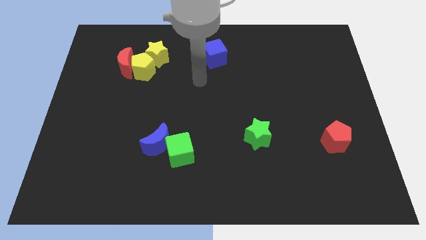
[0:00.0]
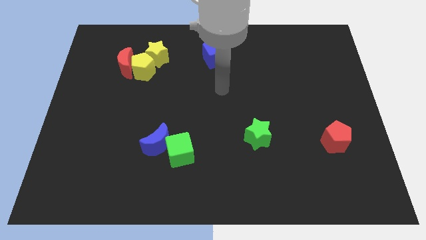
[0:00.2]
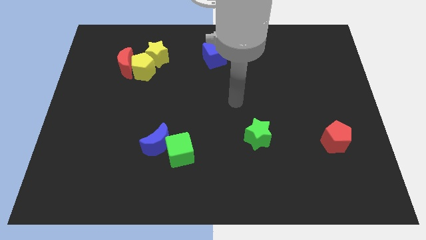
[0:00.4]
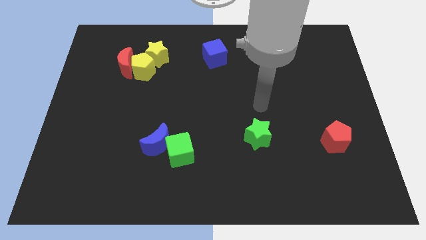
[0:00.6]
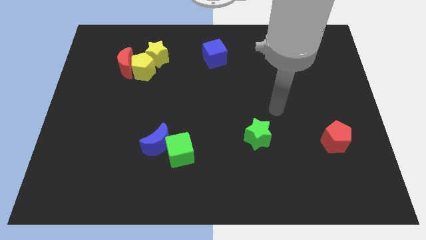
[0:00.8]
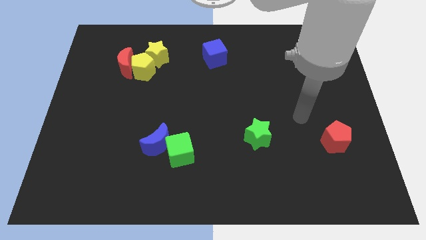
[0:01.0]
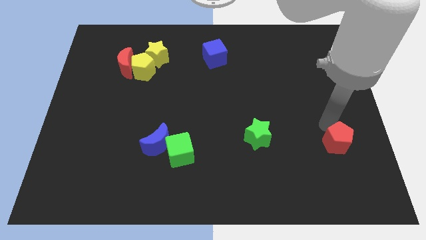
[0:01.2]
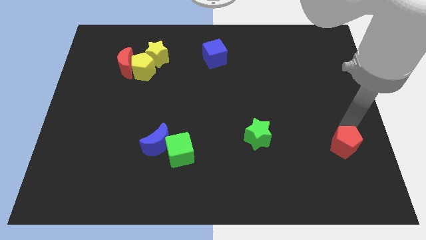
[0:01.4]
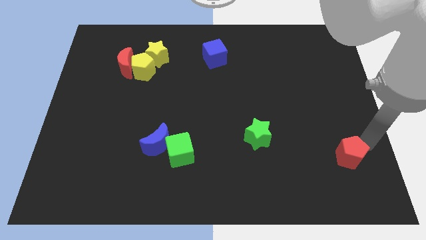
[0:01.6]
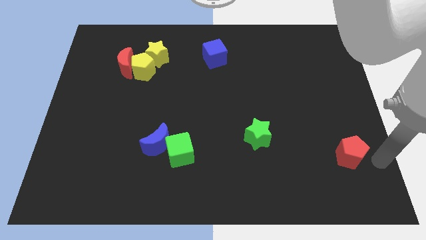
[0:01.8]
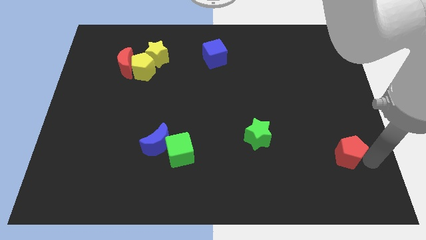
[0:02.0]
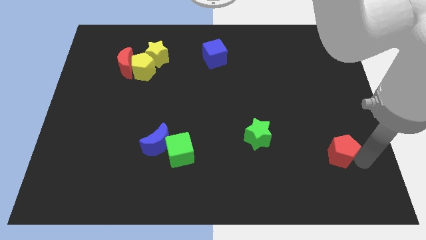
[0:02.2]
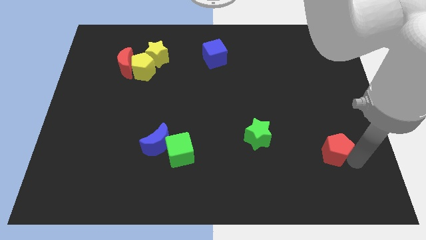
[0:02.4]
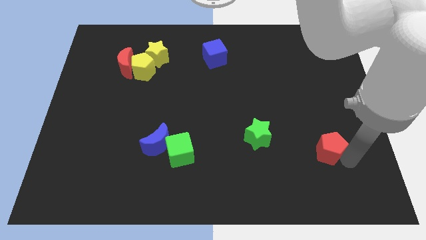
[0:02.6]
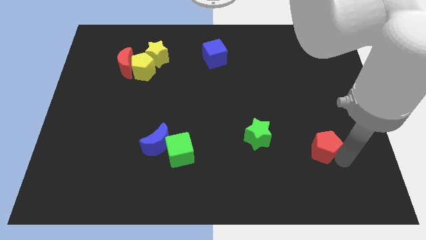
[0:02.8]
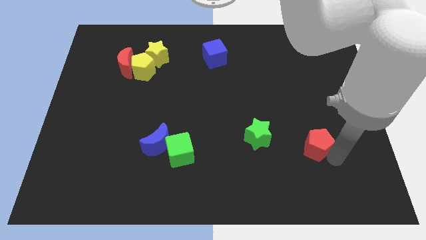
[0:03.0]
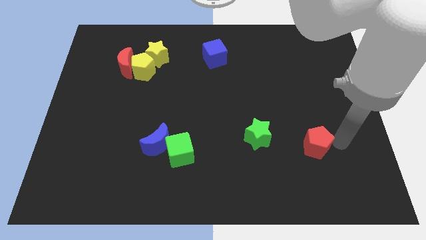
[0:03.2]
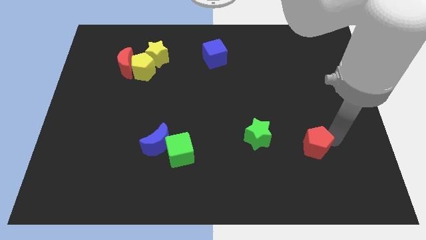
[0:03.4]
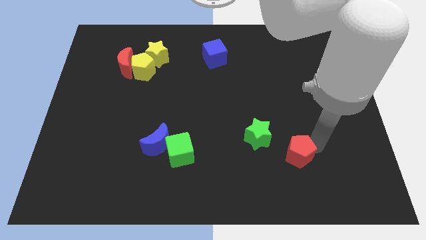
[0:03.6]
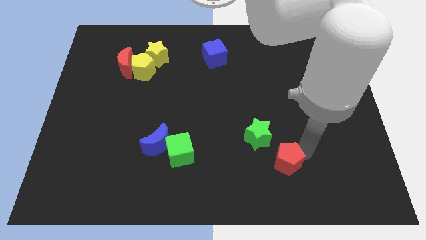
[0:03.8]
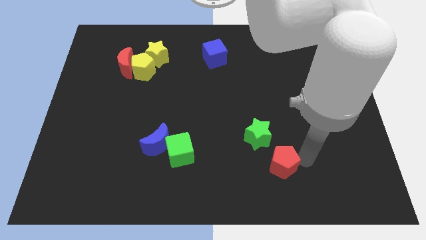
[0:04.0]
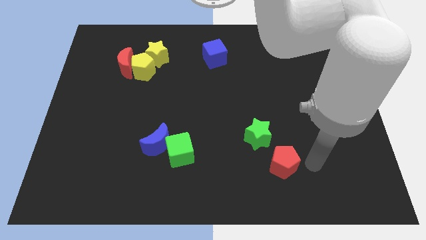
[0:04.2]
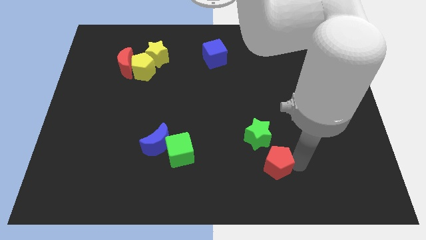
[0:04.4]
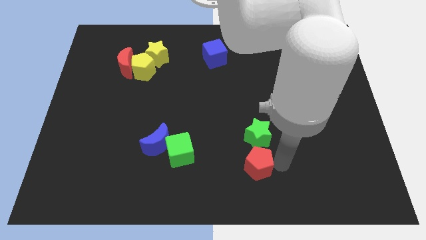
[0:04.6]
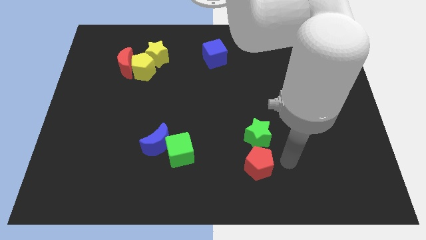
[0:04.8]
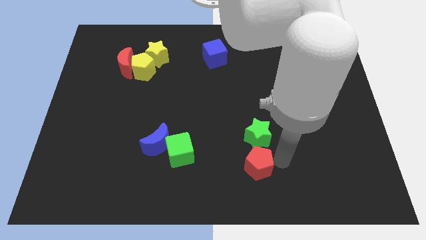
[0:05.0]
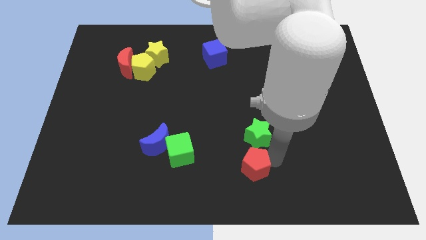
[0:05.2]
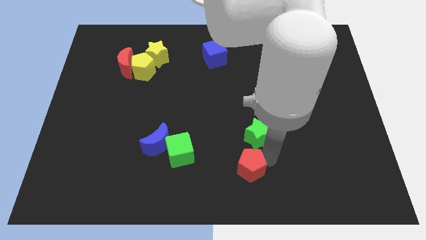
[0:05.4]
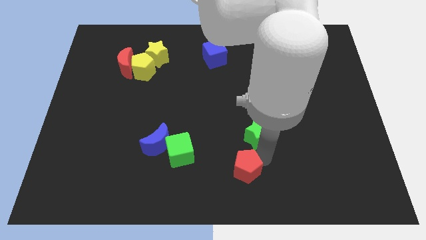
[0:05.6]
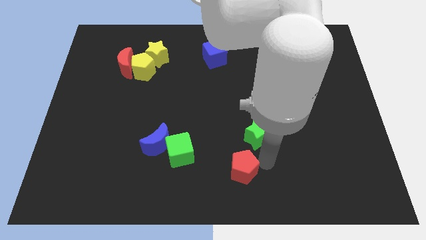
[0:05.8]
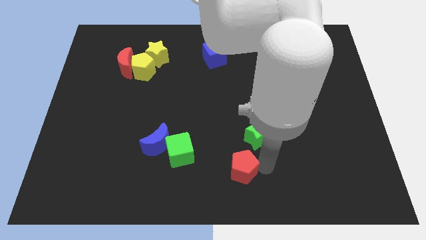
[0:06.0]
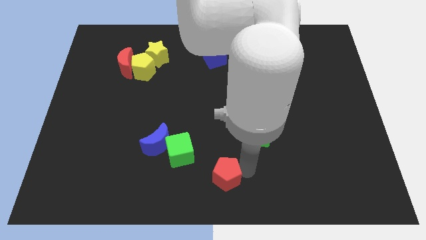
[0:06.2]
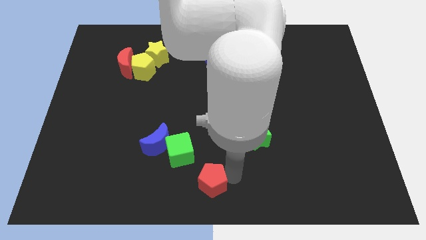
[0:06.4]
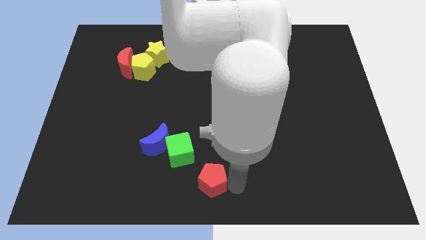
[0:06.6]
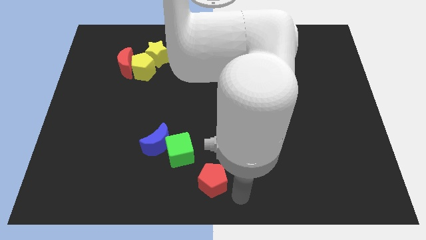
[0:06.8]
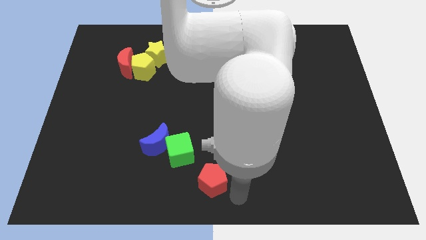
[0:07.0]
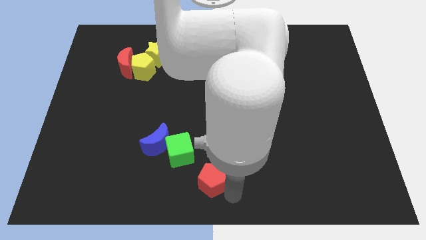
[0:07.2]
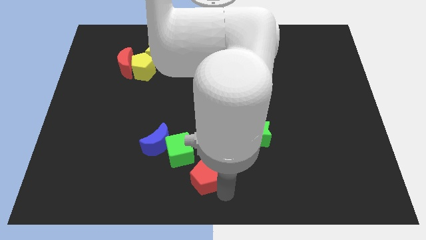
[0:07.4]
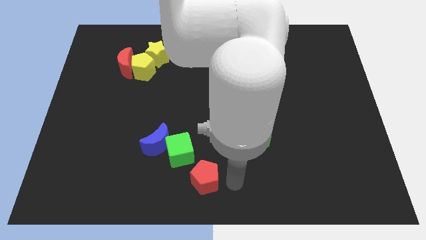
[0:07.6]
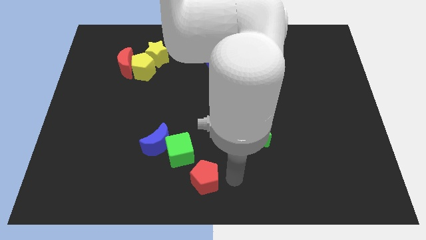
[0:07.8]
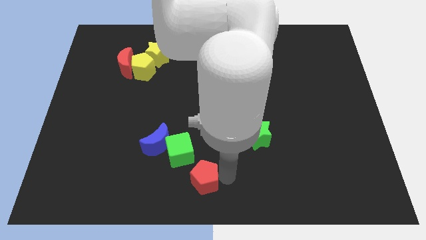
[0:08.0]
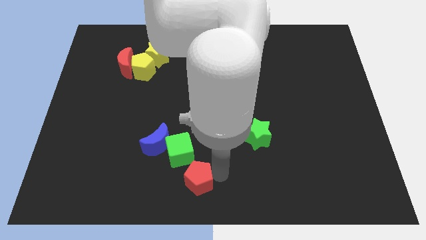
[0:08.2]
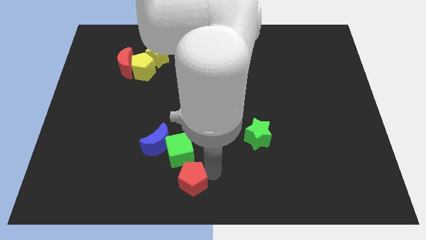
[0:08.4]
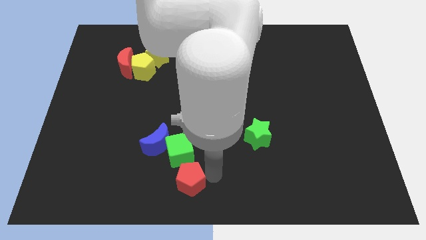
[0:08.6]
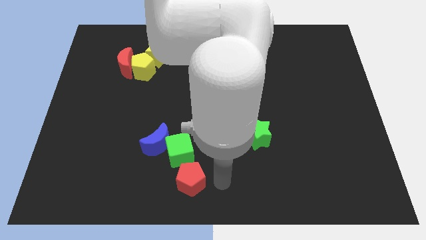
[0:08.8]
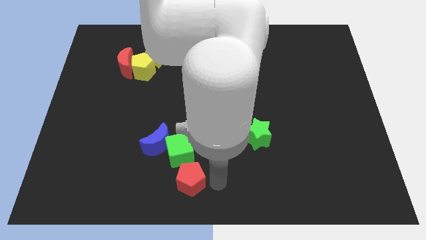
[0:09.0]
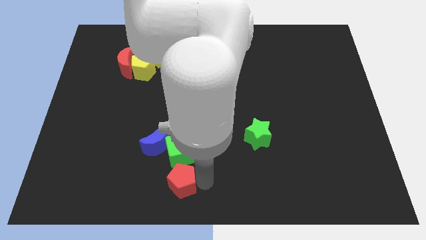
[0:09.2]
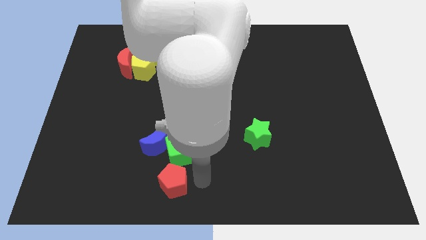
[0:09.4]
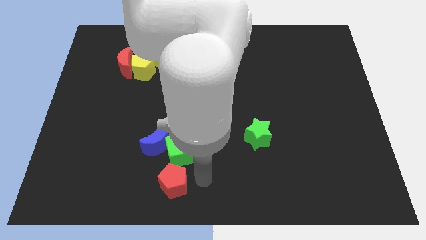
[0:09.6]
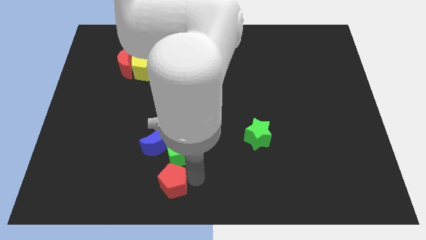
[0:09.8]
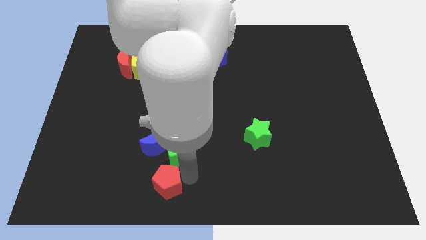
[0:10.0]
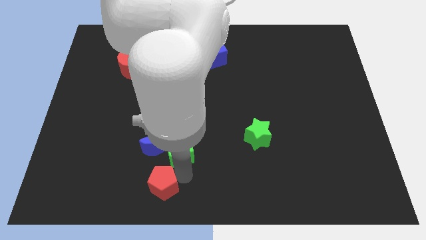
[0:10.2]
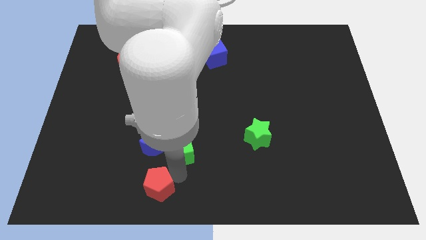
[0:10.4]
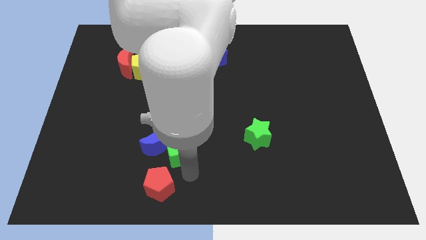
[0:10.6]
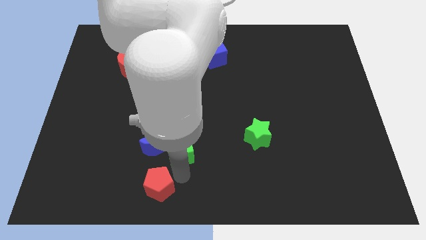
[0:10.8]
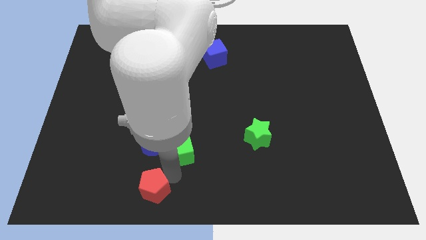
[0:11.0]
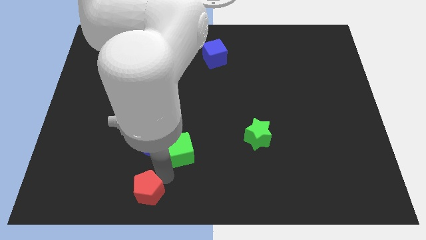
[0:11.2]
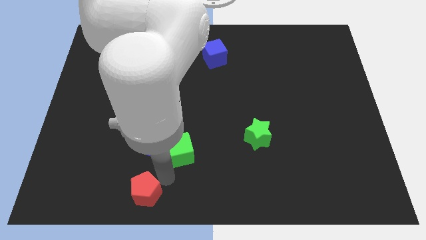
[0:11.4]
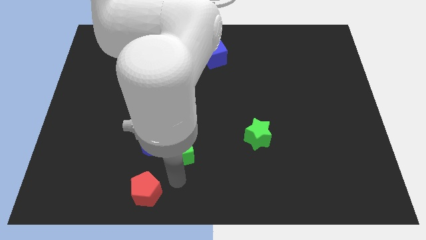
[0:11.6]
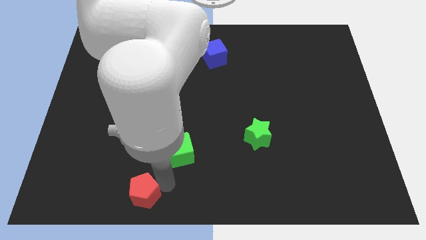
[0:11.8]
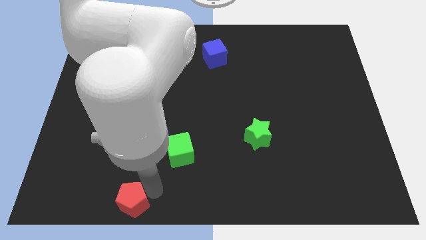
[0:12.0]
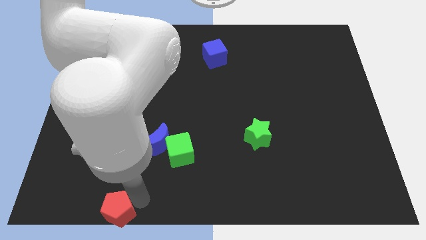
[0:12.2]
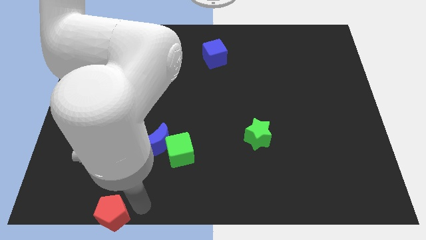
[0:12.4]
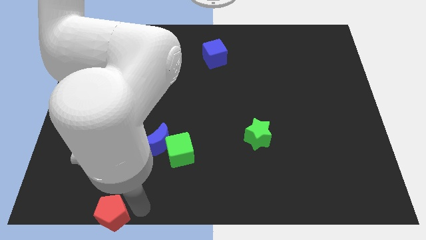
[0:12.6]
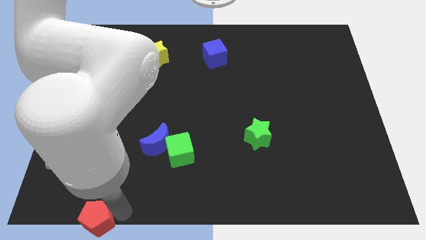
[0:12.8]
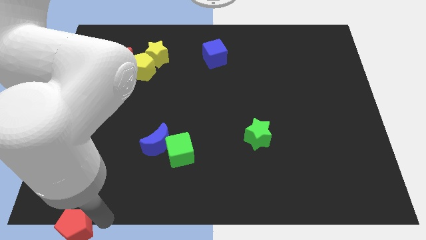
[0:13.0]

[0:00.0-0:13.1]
move the red pentagon to the bottom left of the board

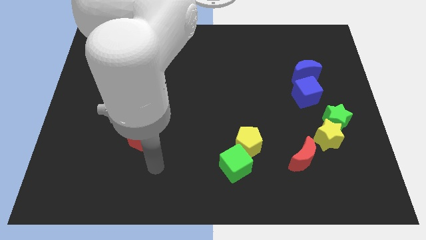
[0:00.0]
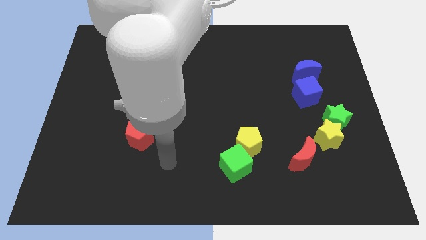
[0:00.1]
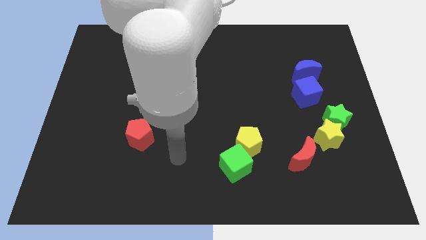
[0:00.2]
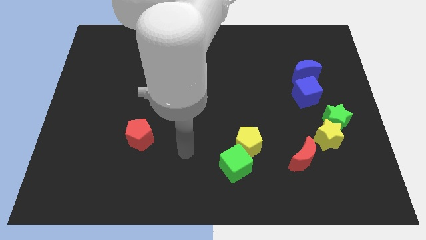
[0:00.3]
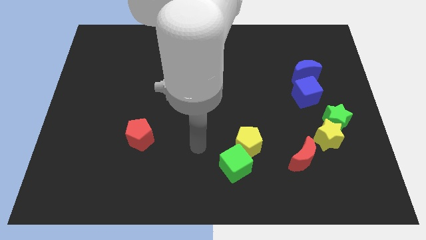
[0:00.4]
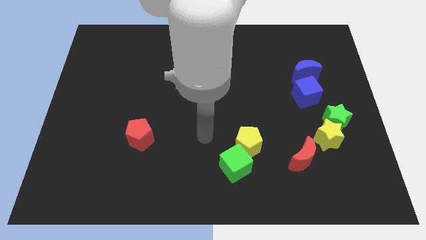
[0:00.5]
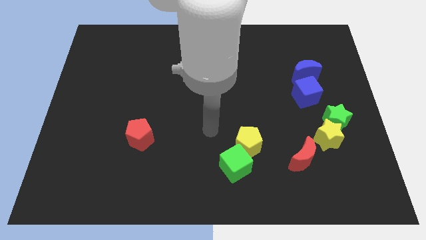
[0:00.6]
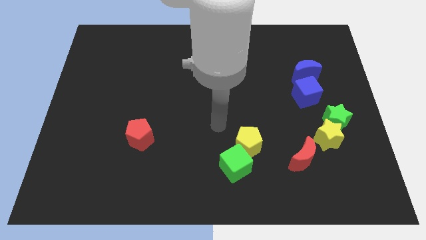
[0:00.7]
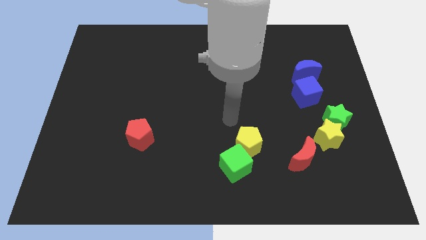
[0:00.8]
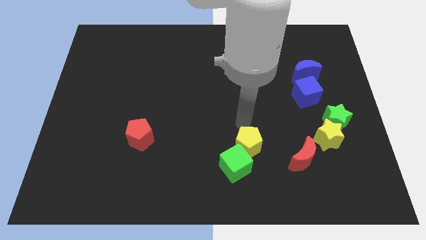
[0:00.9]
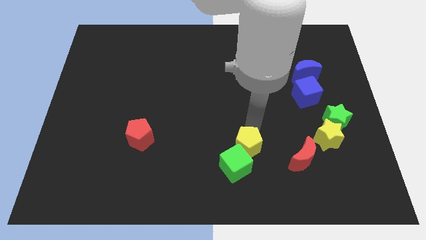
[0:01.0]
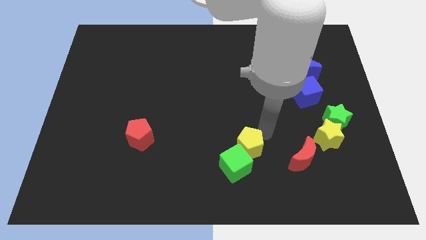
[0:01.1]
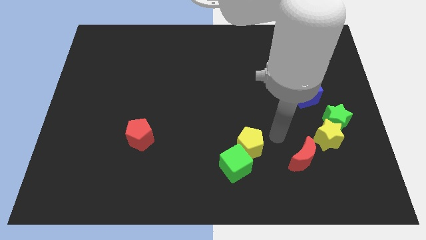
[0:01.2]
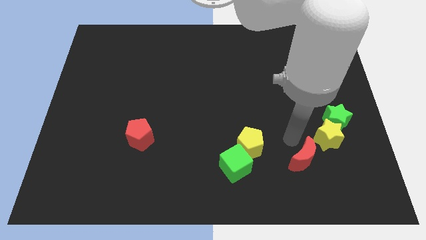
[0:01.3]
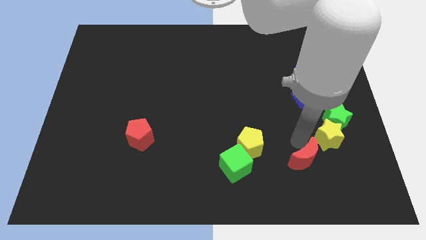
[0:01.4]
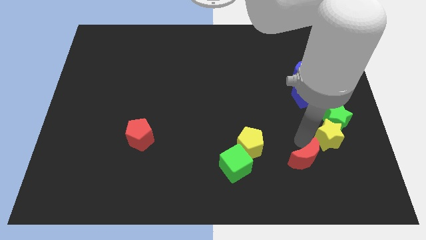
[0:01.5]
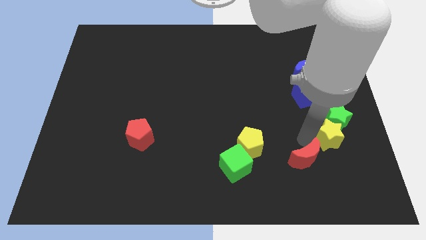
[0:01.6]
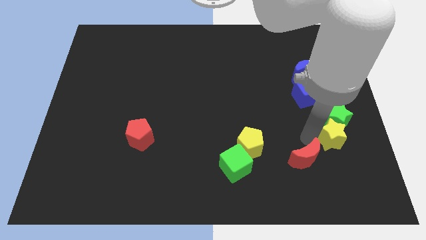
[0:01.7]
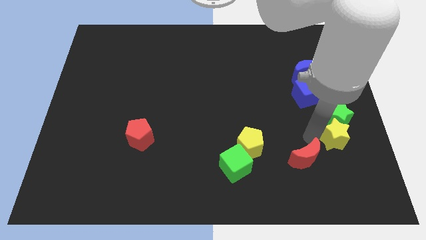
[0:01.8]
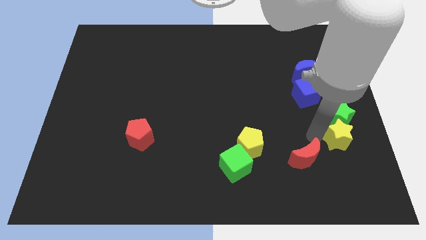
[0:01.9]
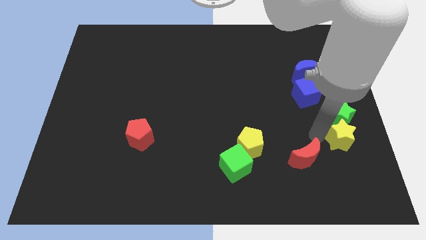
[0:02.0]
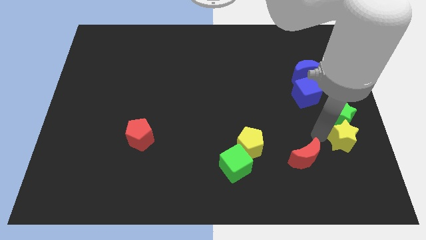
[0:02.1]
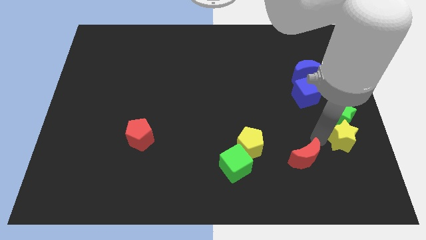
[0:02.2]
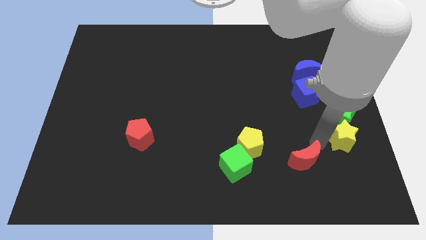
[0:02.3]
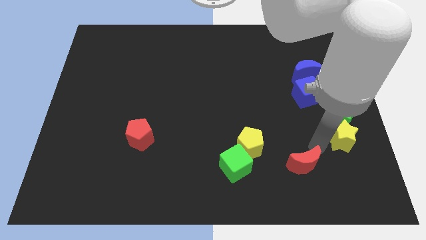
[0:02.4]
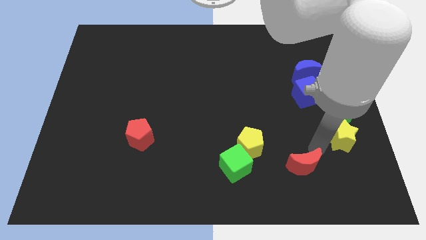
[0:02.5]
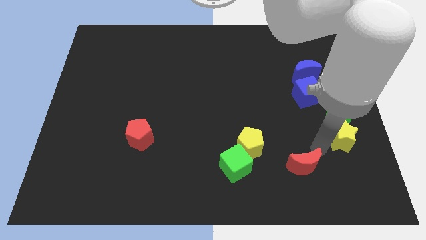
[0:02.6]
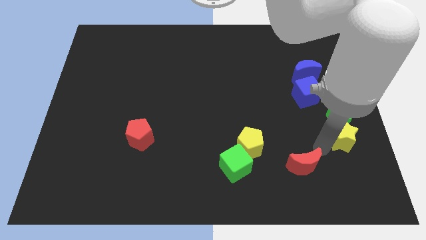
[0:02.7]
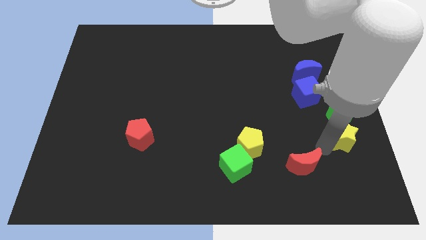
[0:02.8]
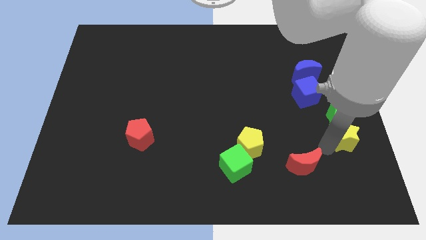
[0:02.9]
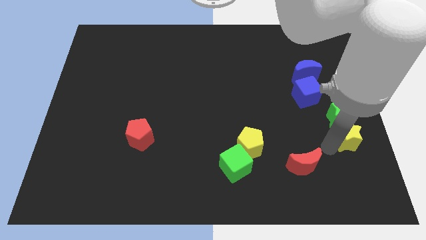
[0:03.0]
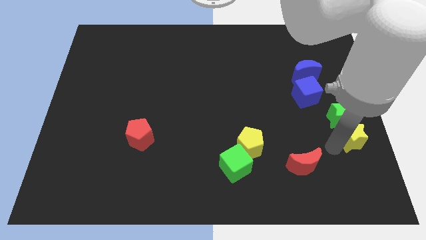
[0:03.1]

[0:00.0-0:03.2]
move the yellow star to the center right
